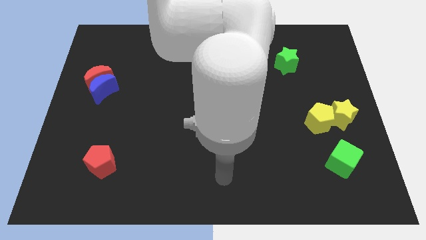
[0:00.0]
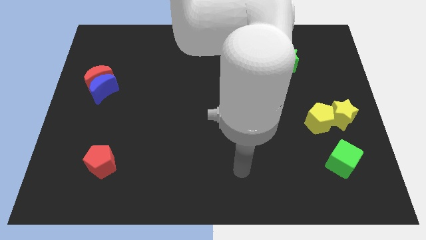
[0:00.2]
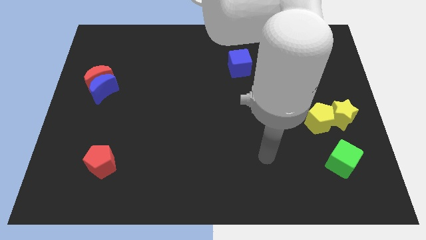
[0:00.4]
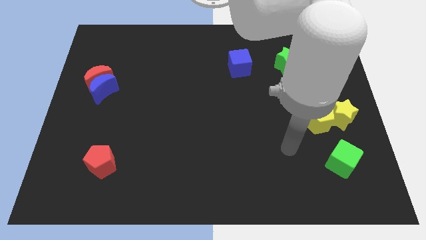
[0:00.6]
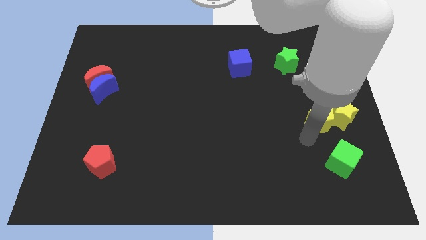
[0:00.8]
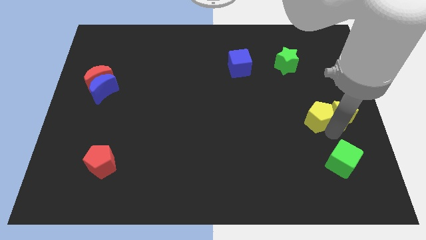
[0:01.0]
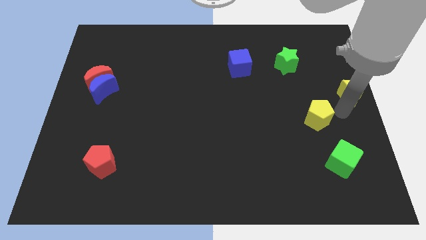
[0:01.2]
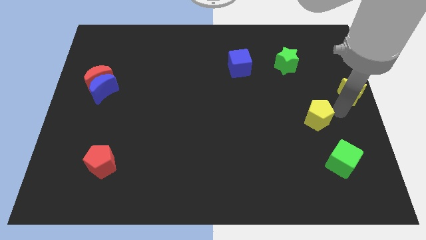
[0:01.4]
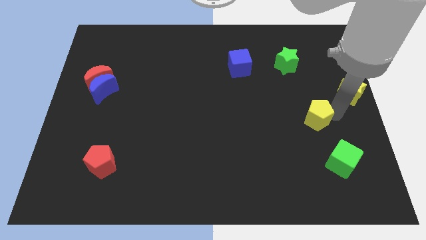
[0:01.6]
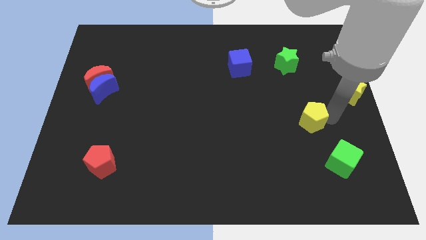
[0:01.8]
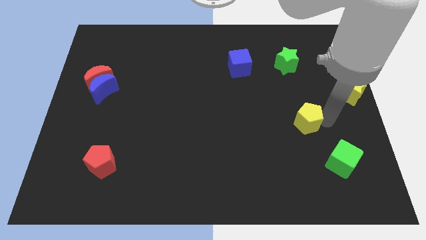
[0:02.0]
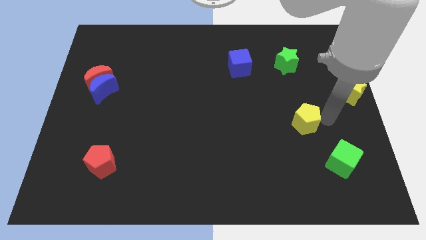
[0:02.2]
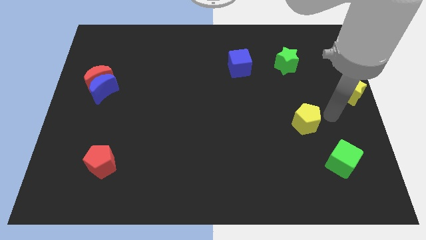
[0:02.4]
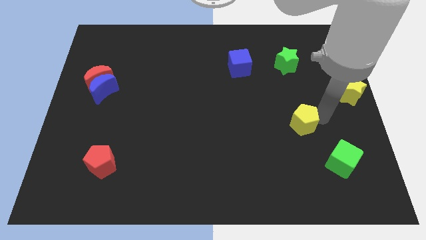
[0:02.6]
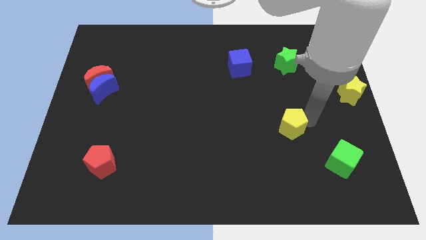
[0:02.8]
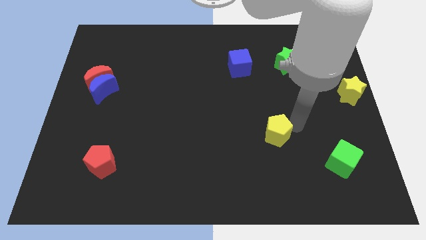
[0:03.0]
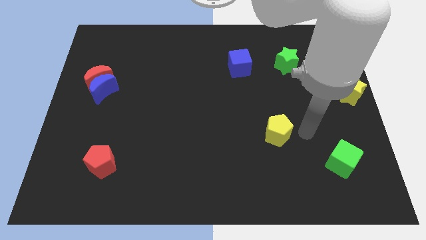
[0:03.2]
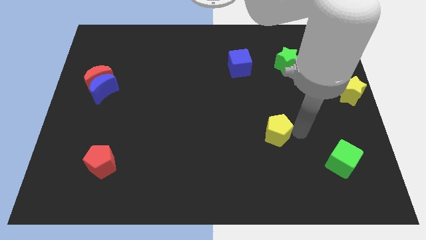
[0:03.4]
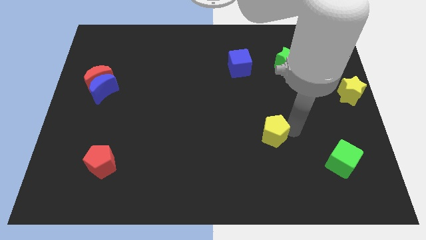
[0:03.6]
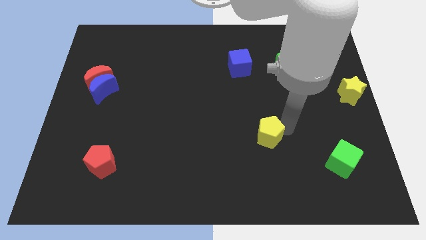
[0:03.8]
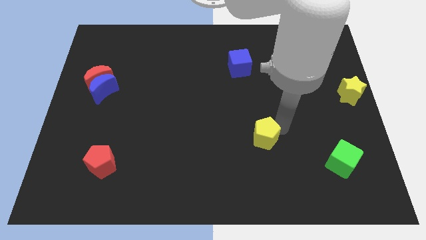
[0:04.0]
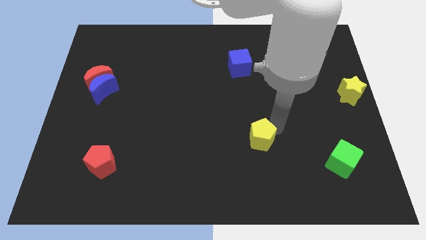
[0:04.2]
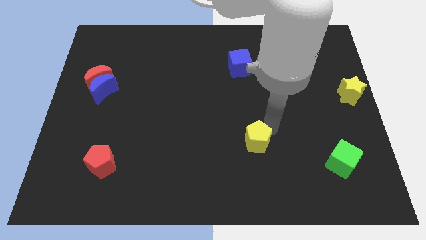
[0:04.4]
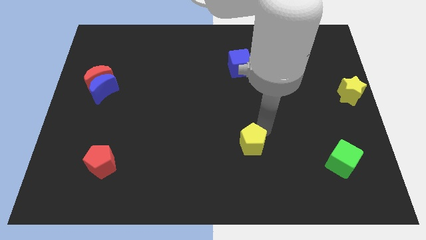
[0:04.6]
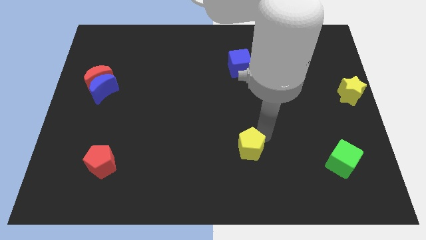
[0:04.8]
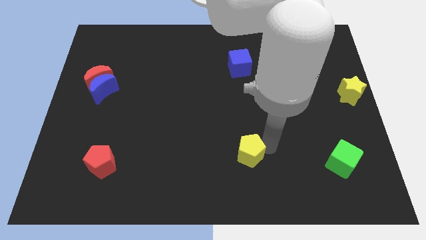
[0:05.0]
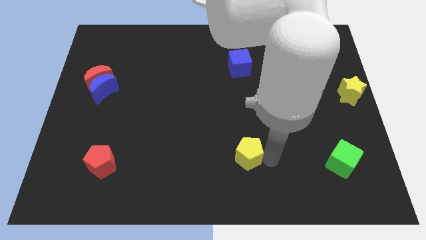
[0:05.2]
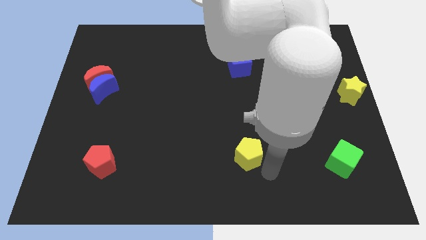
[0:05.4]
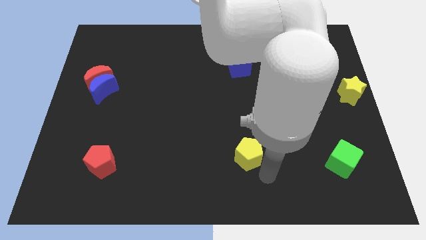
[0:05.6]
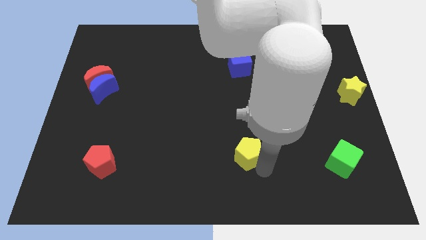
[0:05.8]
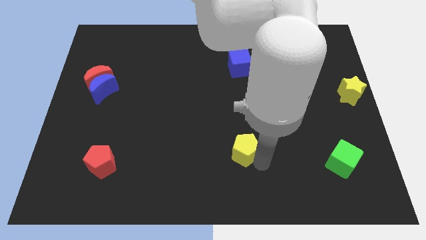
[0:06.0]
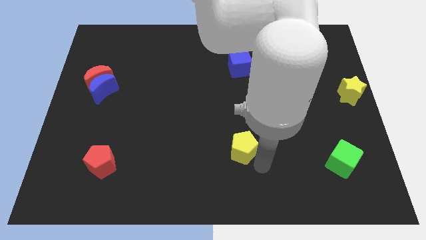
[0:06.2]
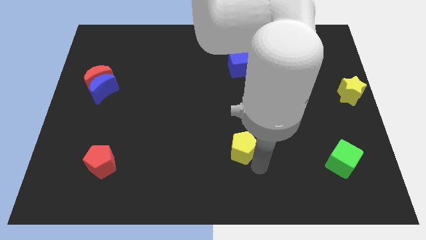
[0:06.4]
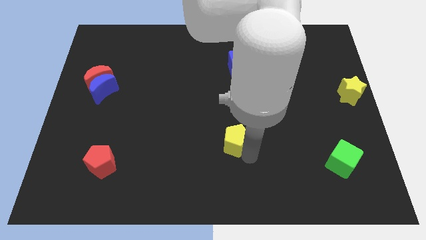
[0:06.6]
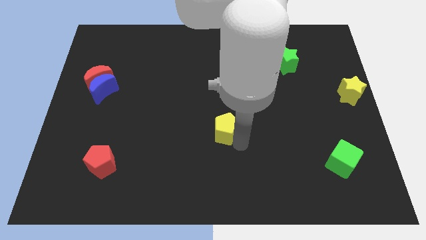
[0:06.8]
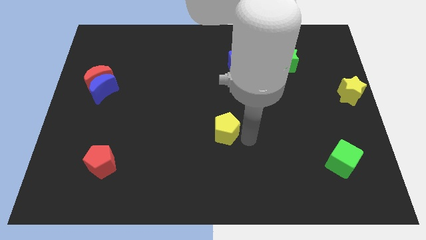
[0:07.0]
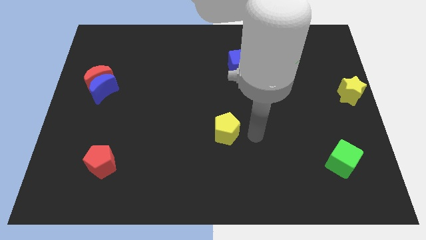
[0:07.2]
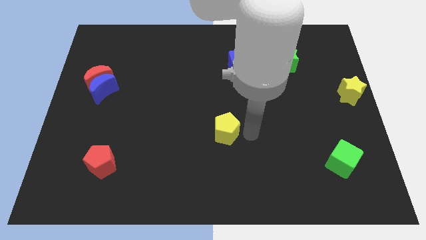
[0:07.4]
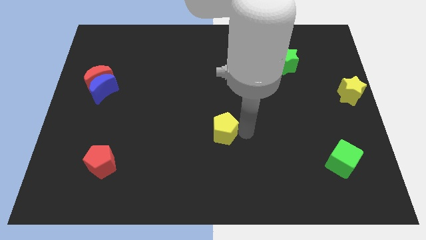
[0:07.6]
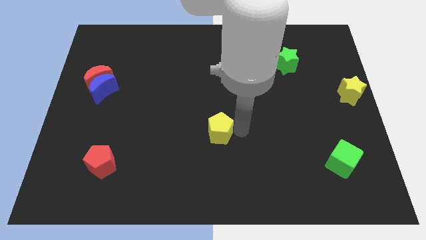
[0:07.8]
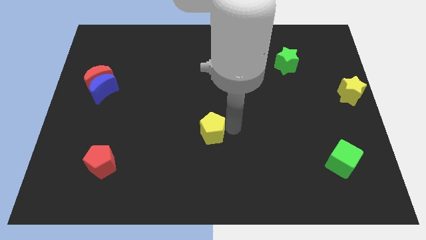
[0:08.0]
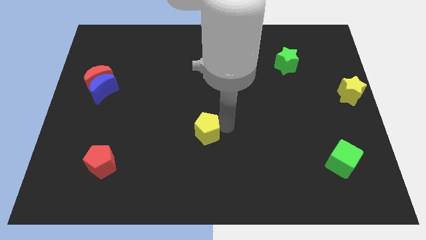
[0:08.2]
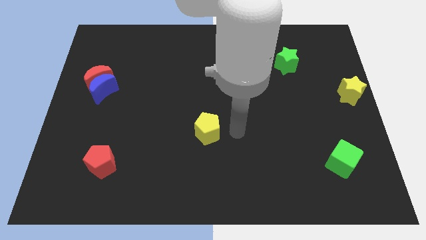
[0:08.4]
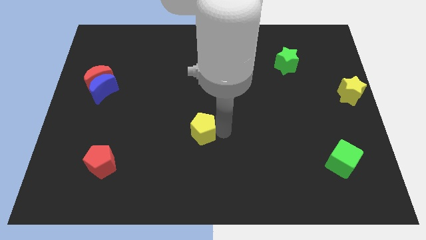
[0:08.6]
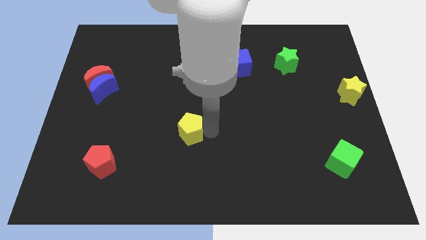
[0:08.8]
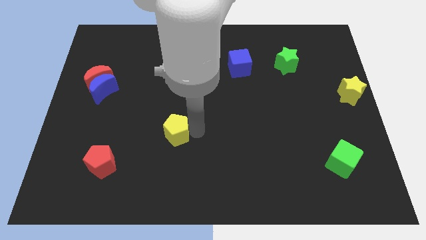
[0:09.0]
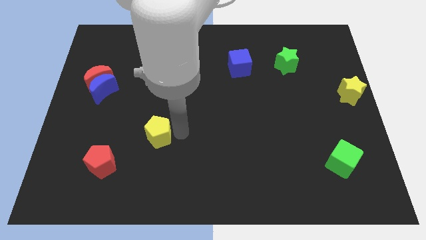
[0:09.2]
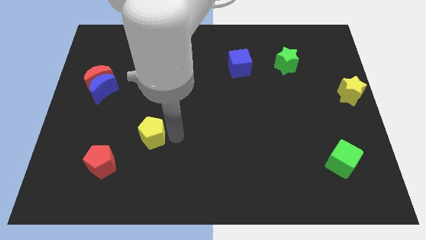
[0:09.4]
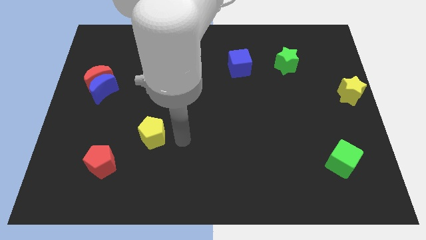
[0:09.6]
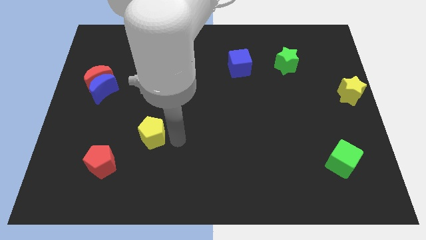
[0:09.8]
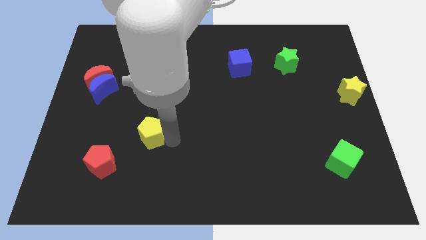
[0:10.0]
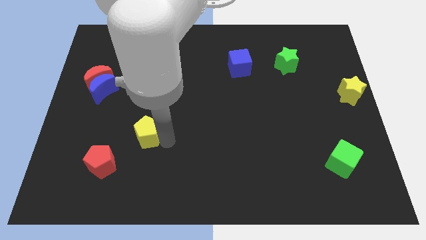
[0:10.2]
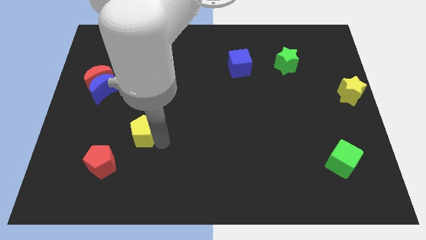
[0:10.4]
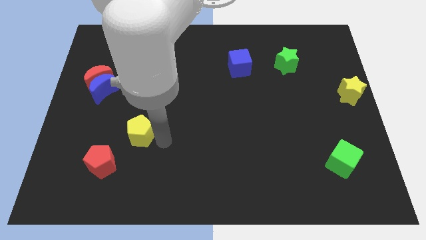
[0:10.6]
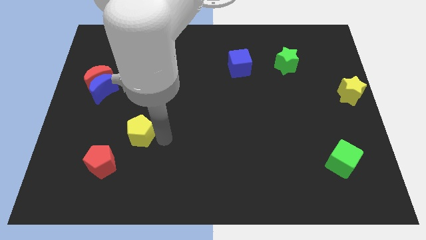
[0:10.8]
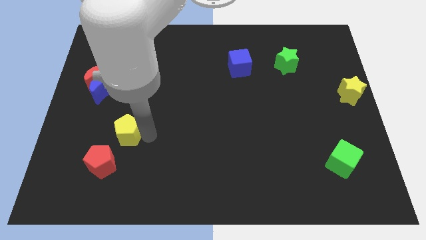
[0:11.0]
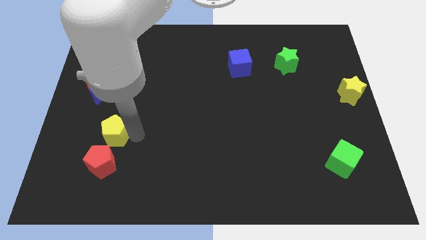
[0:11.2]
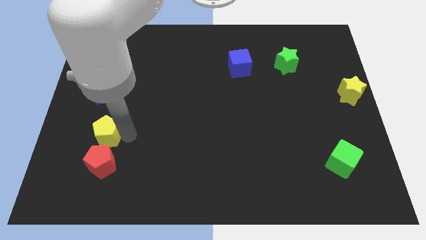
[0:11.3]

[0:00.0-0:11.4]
slide the yellow pentagon to the bottom of the blue moon
